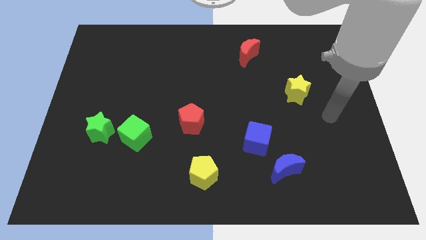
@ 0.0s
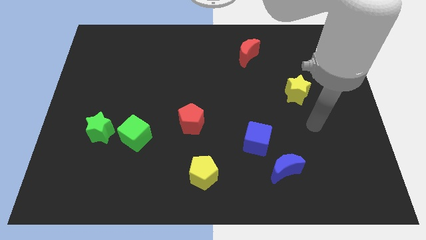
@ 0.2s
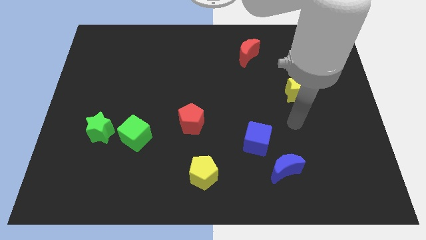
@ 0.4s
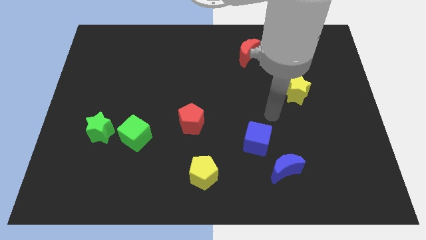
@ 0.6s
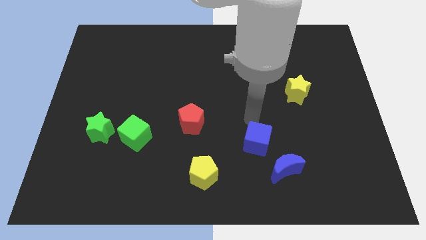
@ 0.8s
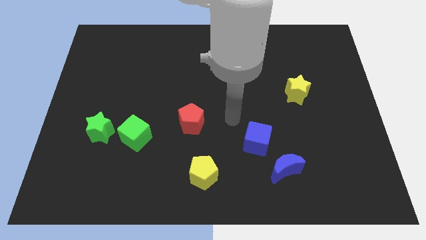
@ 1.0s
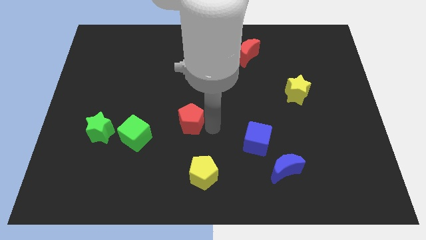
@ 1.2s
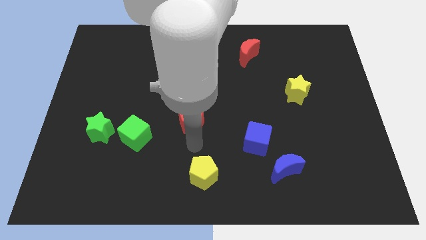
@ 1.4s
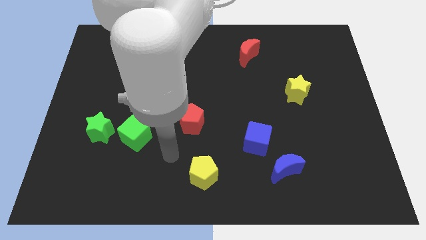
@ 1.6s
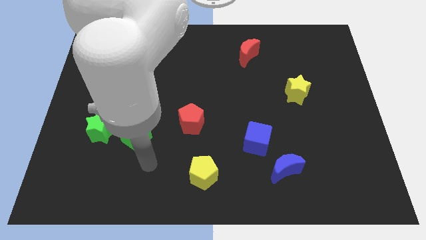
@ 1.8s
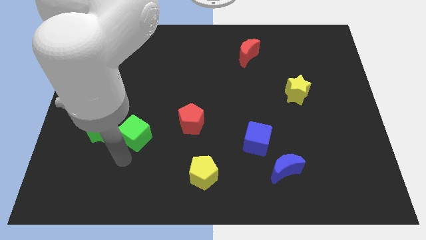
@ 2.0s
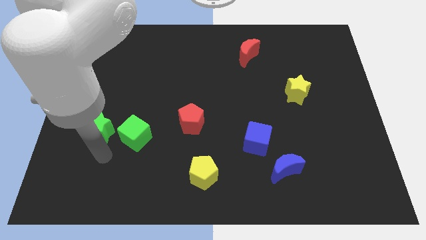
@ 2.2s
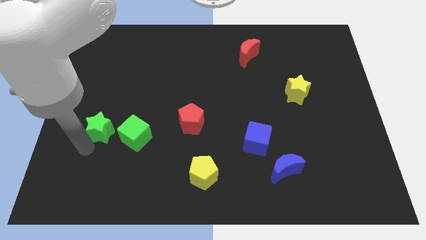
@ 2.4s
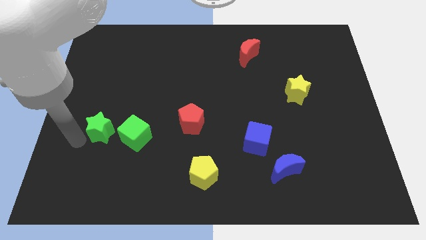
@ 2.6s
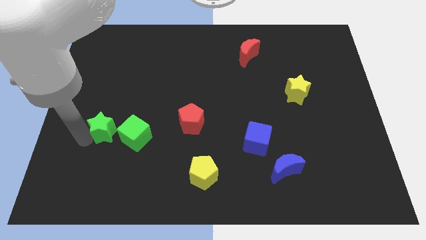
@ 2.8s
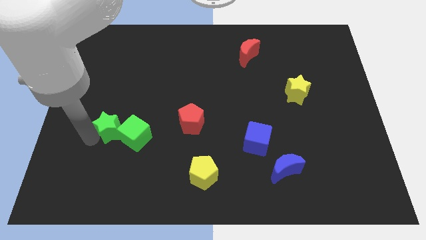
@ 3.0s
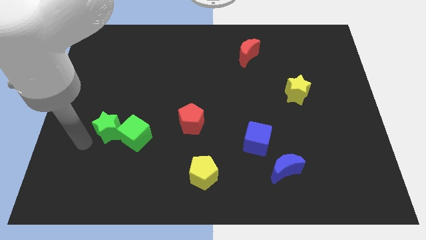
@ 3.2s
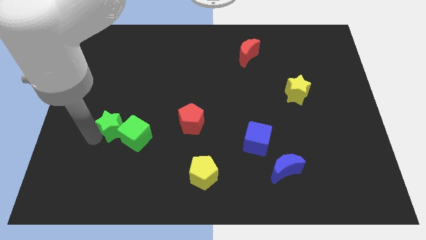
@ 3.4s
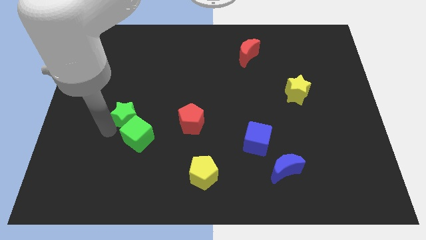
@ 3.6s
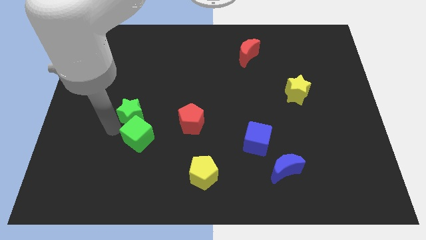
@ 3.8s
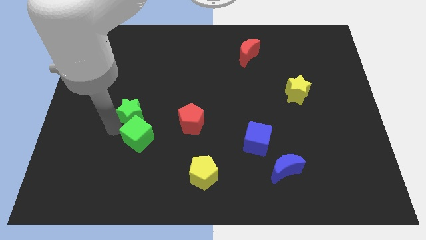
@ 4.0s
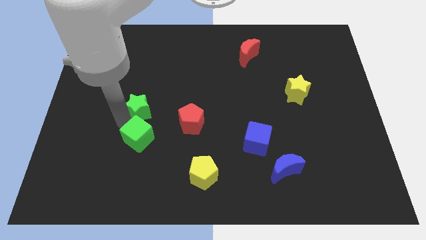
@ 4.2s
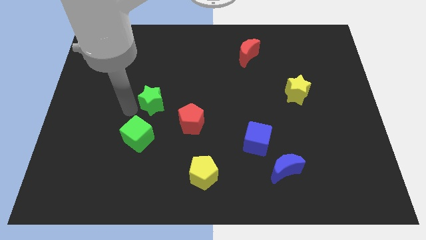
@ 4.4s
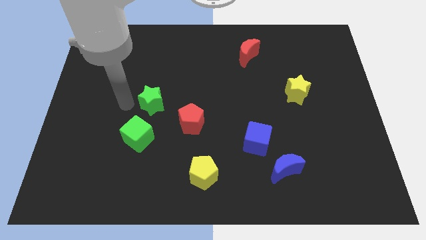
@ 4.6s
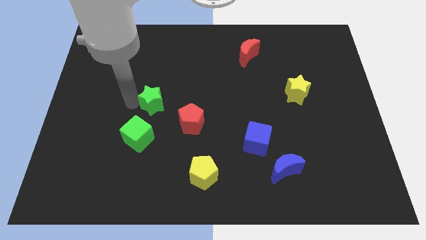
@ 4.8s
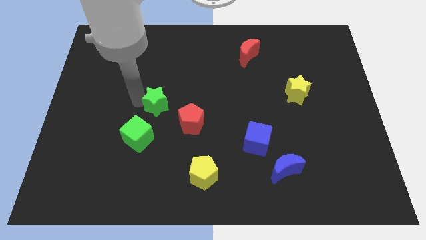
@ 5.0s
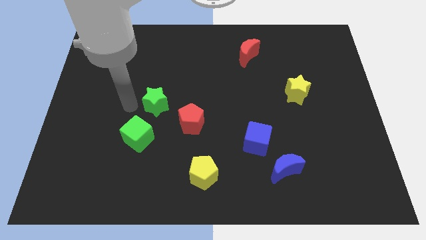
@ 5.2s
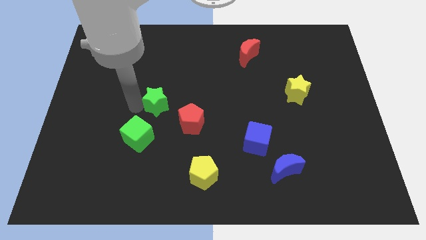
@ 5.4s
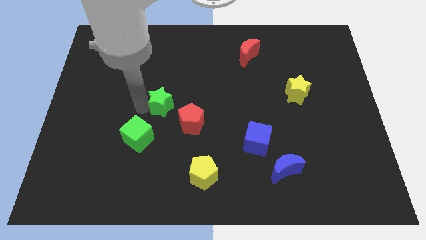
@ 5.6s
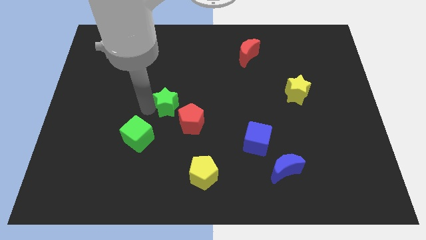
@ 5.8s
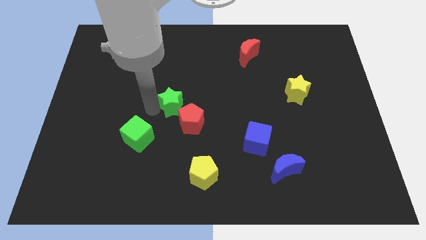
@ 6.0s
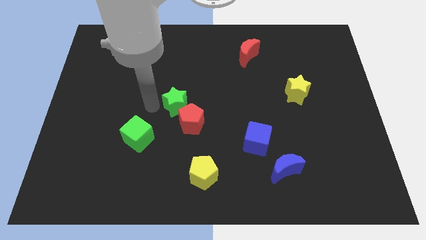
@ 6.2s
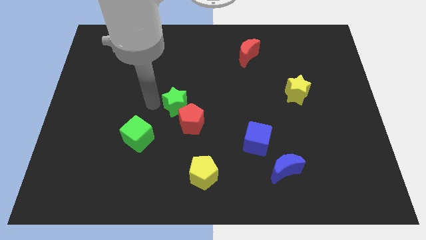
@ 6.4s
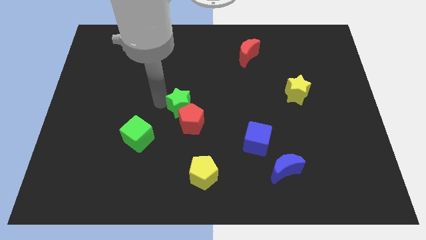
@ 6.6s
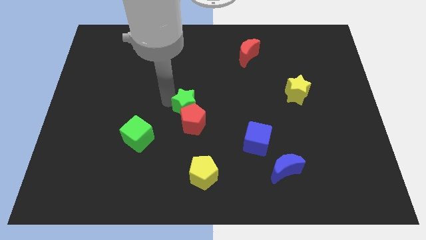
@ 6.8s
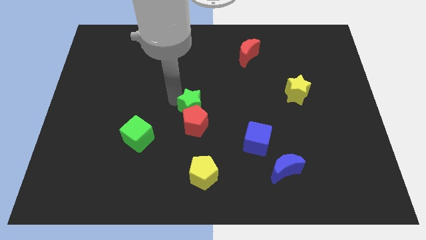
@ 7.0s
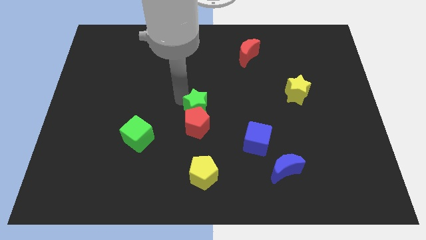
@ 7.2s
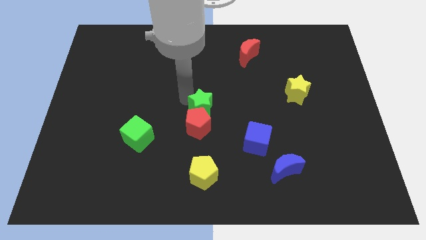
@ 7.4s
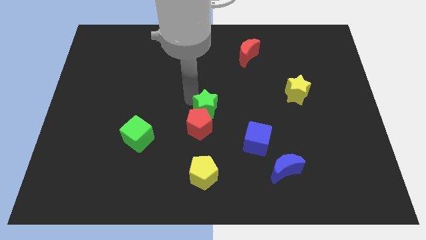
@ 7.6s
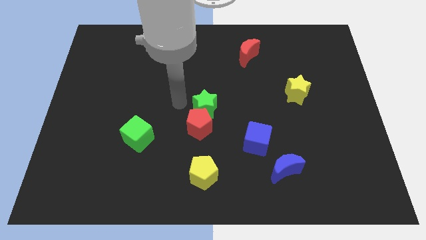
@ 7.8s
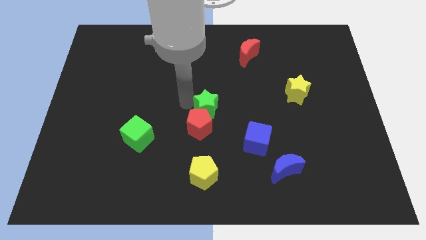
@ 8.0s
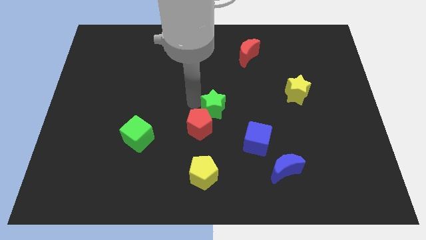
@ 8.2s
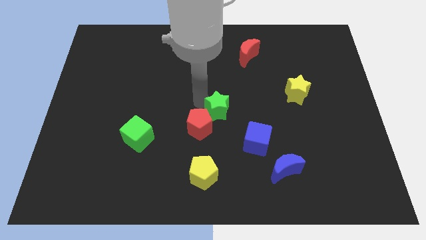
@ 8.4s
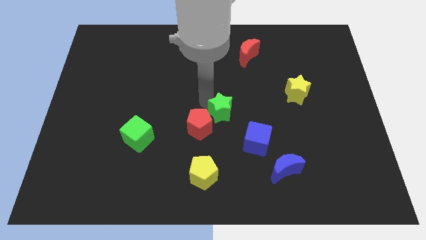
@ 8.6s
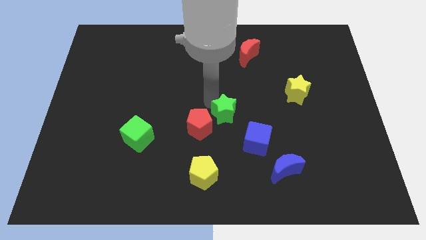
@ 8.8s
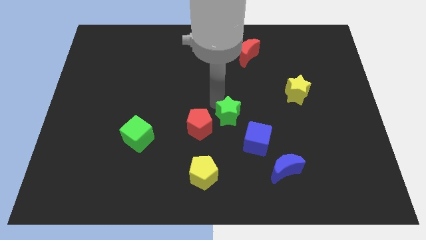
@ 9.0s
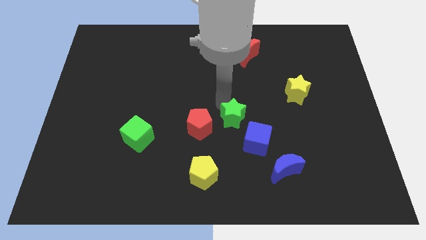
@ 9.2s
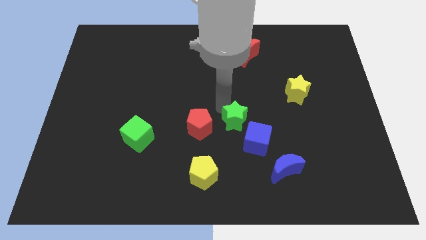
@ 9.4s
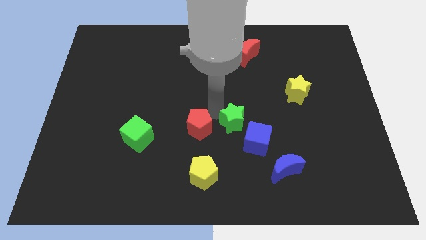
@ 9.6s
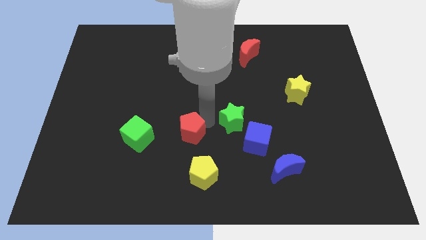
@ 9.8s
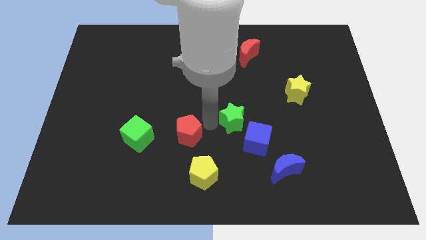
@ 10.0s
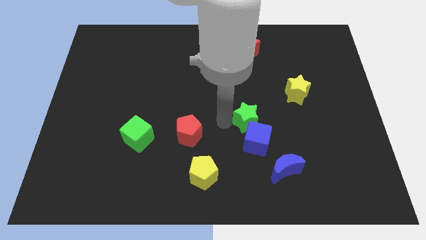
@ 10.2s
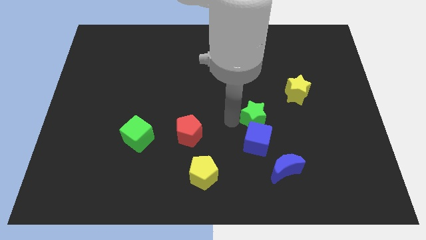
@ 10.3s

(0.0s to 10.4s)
move the green star to the top right side of the blue cube

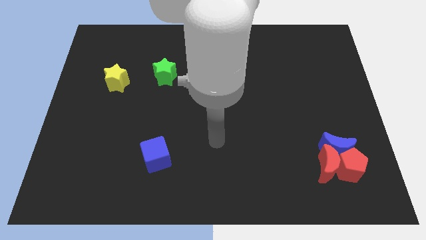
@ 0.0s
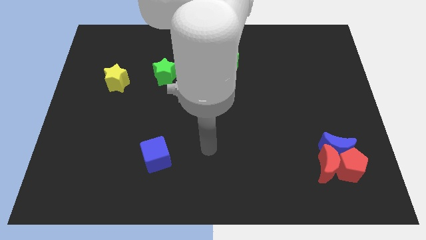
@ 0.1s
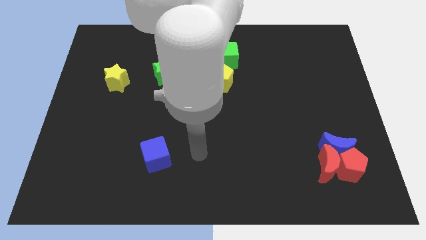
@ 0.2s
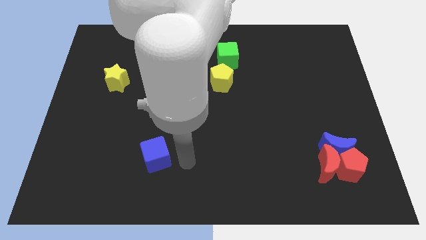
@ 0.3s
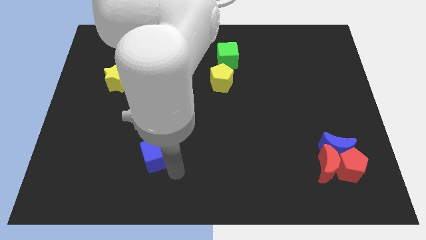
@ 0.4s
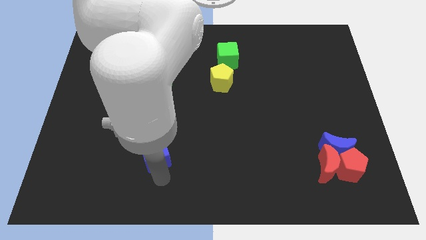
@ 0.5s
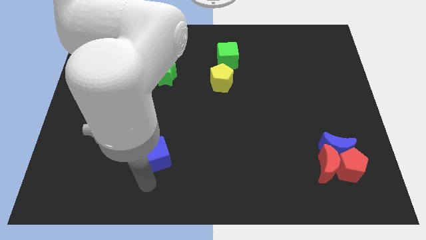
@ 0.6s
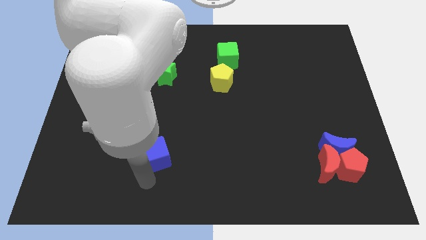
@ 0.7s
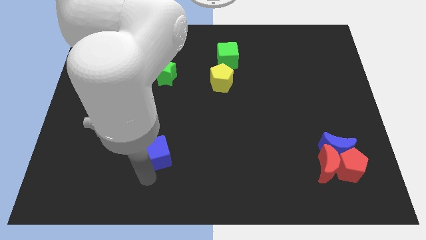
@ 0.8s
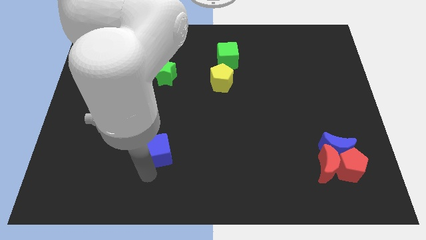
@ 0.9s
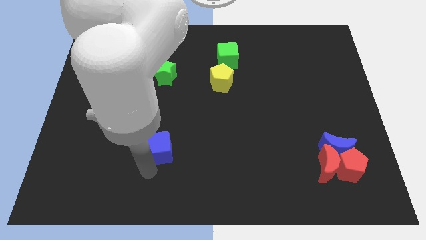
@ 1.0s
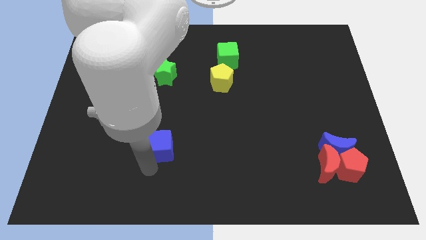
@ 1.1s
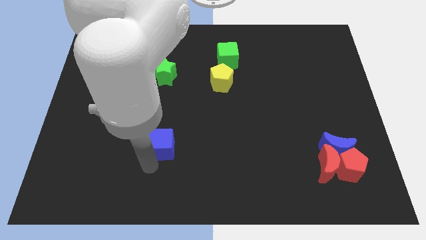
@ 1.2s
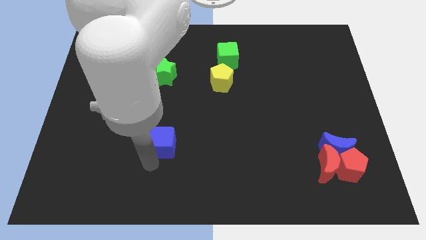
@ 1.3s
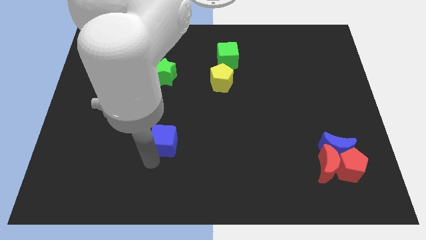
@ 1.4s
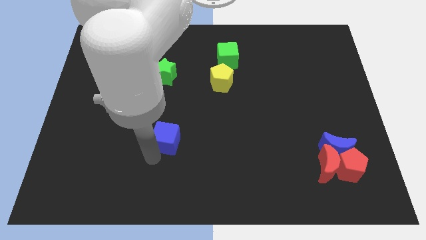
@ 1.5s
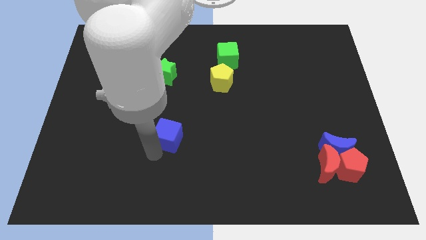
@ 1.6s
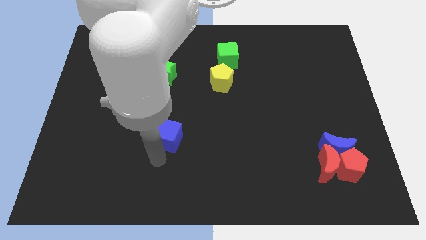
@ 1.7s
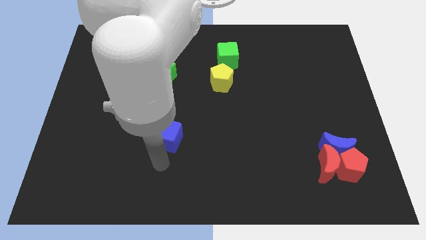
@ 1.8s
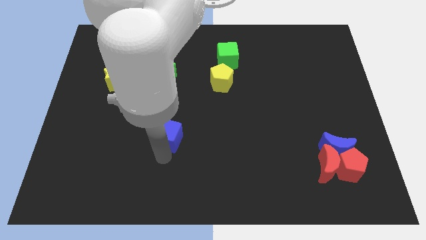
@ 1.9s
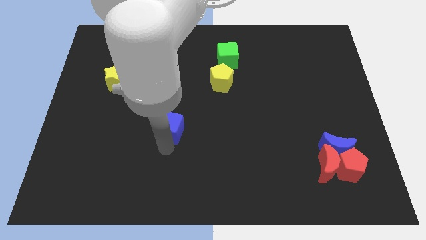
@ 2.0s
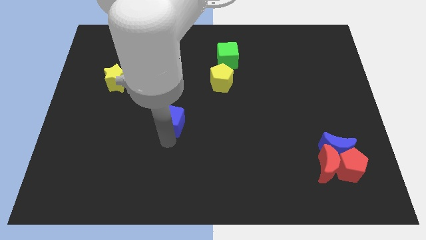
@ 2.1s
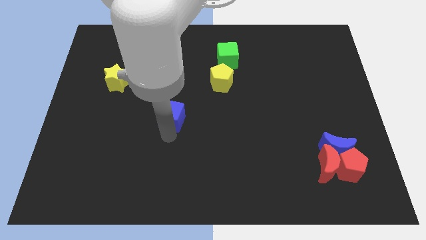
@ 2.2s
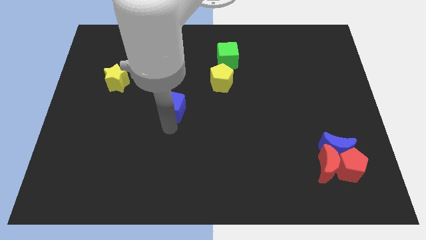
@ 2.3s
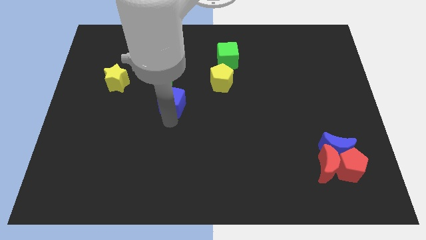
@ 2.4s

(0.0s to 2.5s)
slide the blue cube diagonally down and to the right of the green star

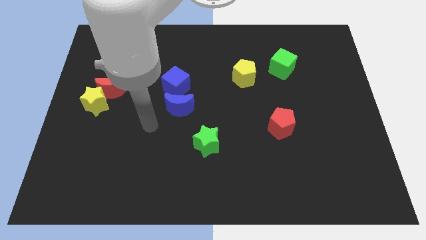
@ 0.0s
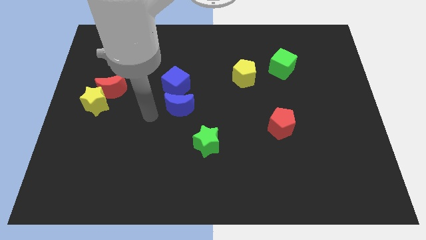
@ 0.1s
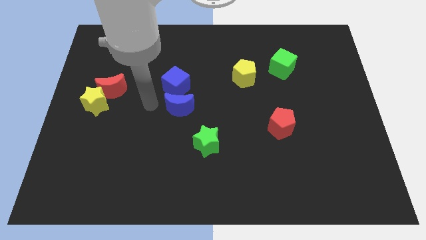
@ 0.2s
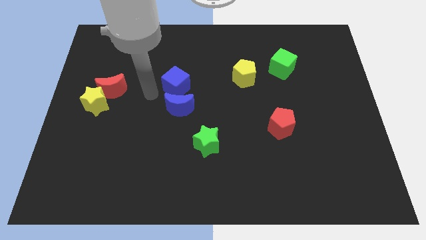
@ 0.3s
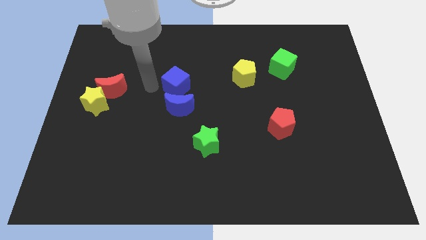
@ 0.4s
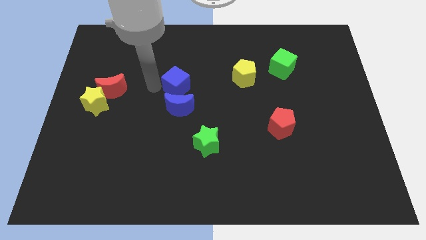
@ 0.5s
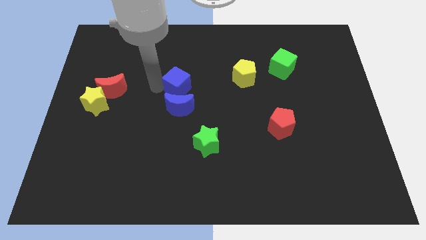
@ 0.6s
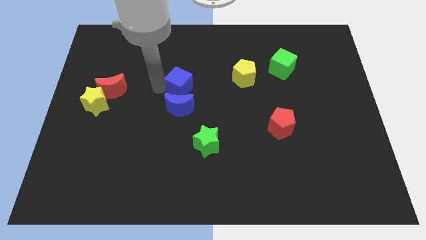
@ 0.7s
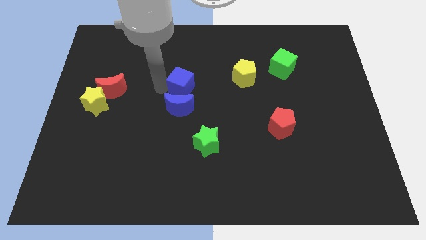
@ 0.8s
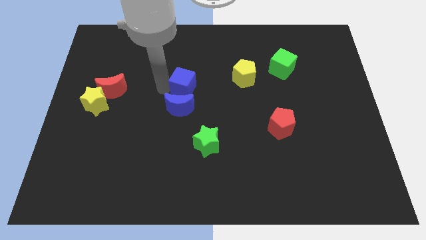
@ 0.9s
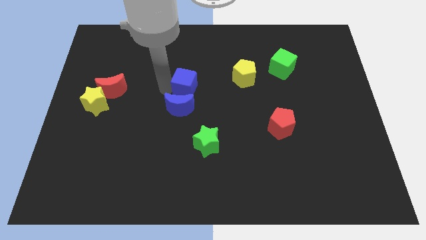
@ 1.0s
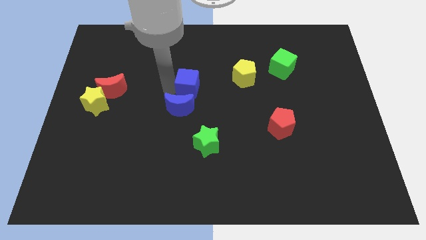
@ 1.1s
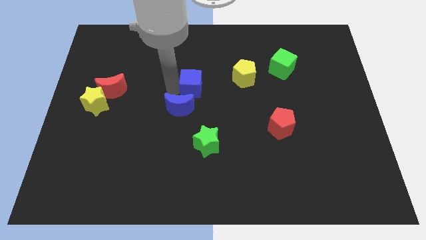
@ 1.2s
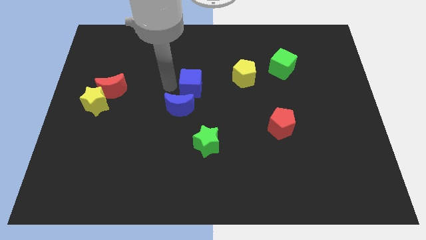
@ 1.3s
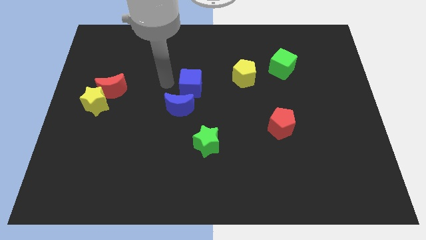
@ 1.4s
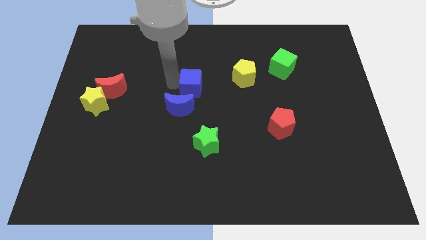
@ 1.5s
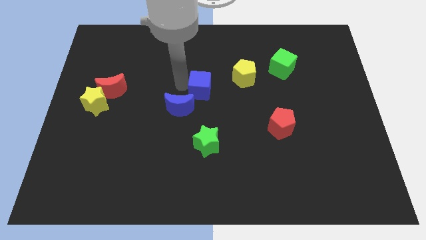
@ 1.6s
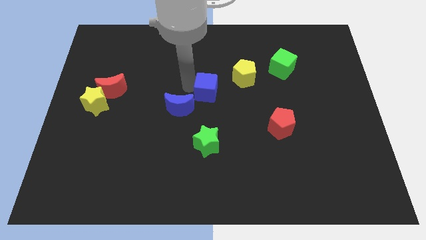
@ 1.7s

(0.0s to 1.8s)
push the blue cube to the bottom left of the yellow pentagon
